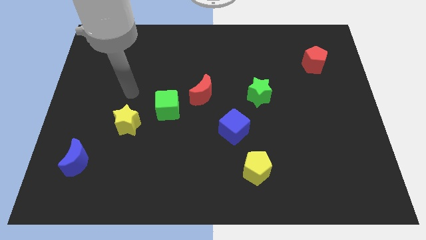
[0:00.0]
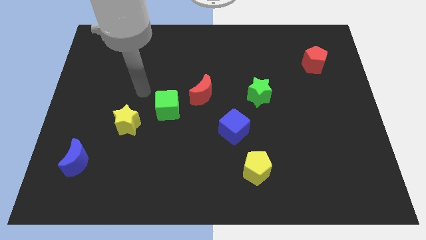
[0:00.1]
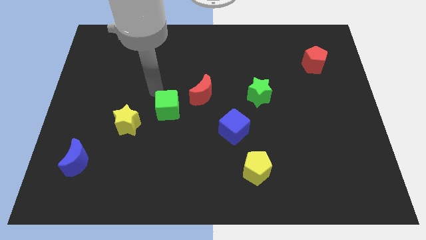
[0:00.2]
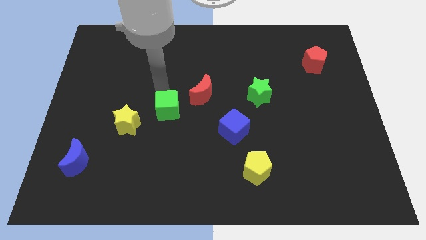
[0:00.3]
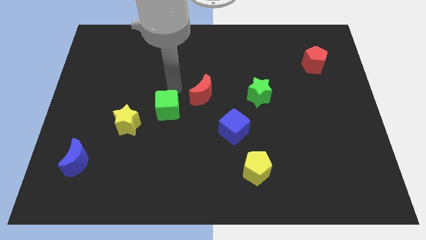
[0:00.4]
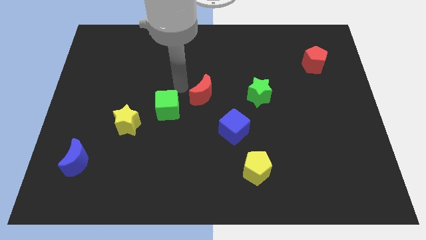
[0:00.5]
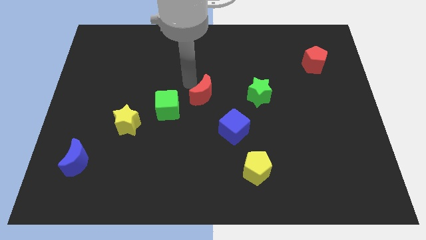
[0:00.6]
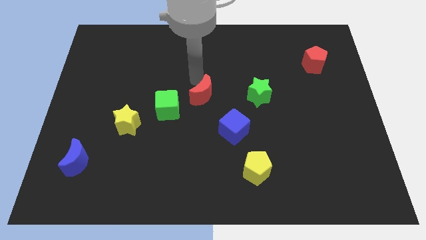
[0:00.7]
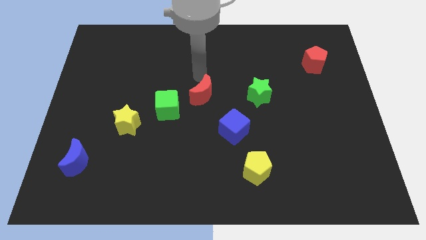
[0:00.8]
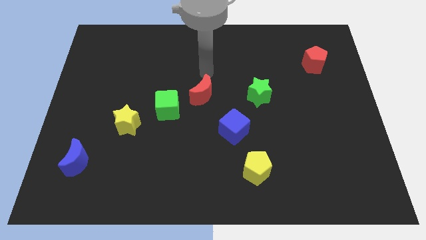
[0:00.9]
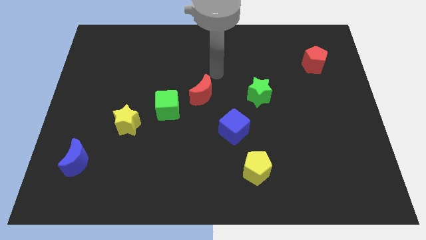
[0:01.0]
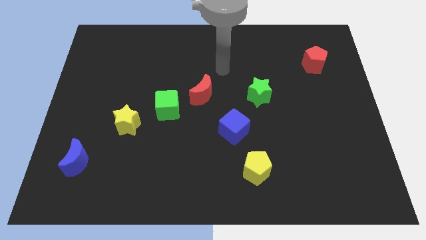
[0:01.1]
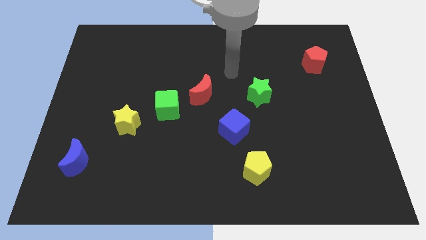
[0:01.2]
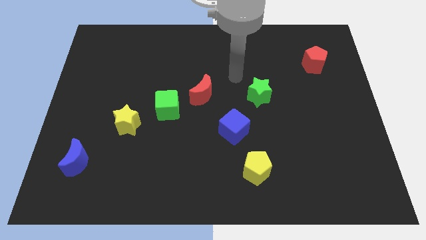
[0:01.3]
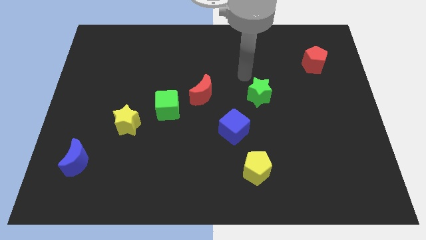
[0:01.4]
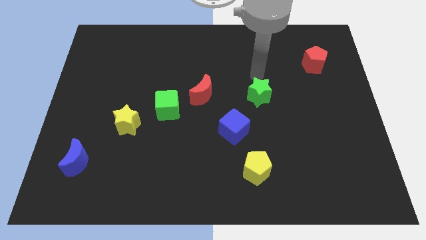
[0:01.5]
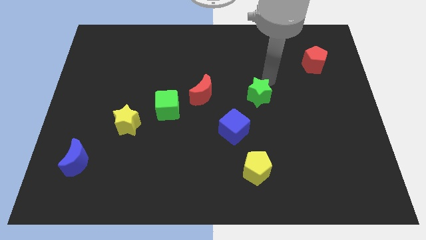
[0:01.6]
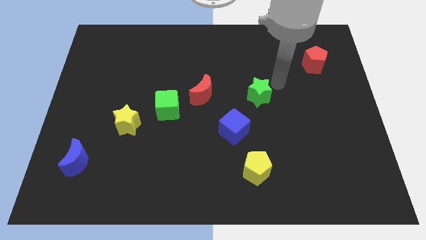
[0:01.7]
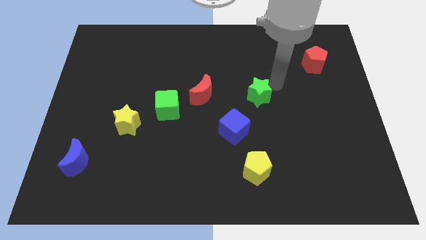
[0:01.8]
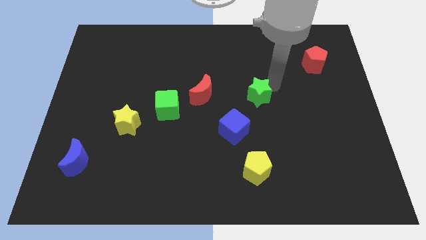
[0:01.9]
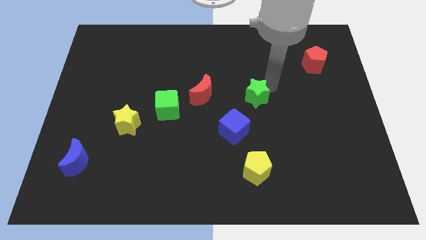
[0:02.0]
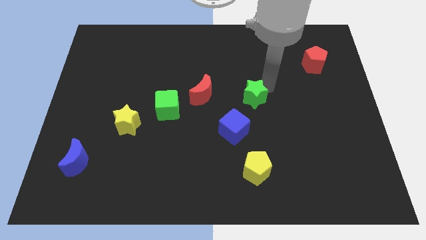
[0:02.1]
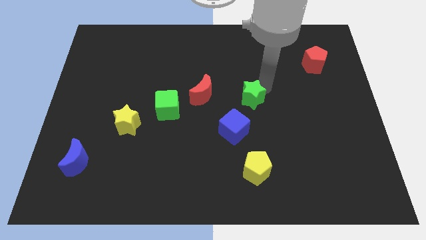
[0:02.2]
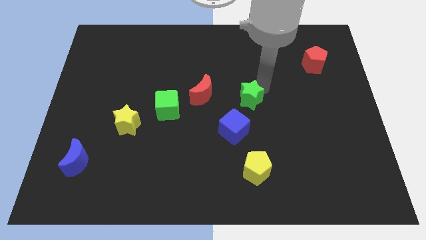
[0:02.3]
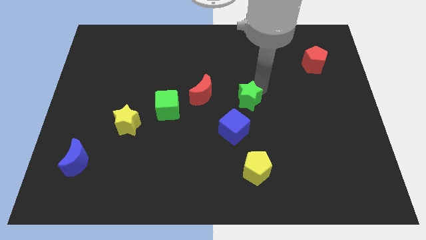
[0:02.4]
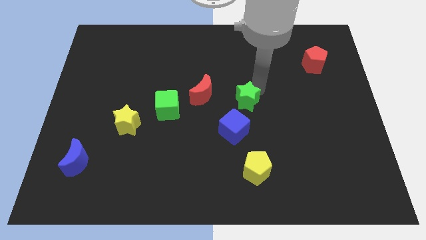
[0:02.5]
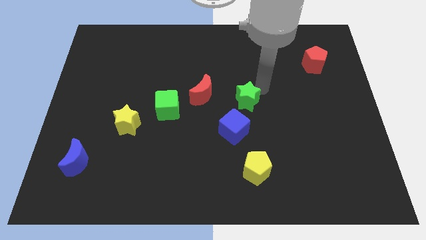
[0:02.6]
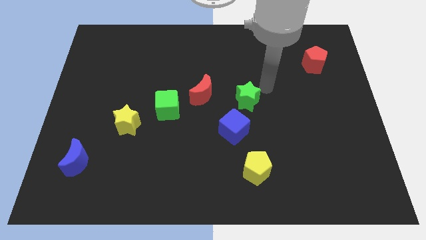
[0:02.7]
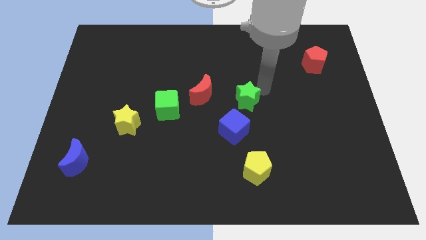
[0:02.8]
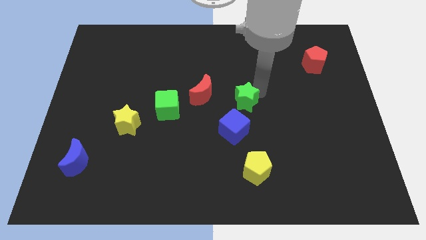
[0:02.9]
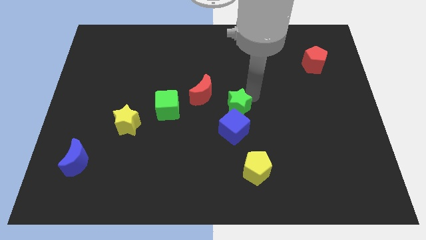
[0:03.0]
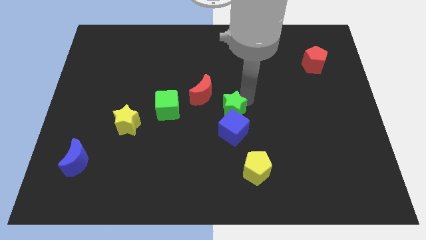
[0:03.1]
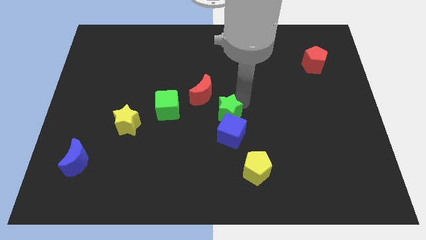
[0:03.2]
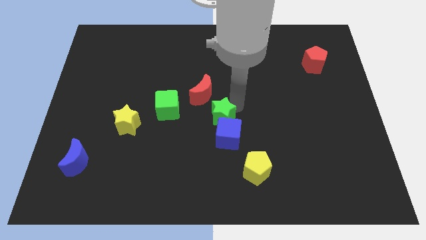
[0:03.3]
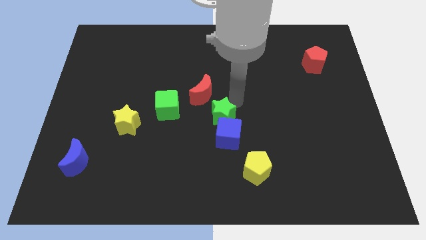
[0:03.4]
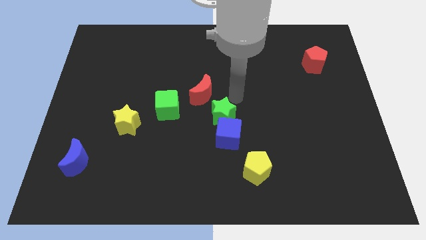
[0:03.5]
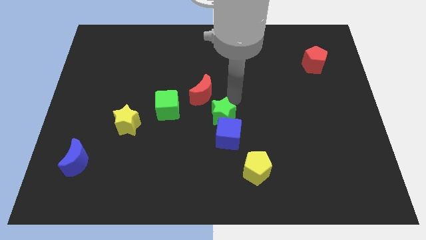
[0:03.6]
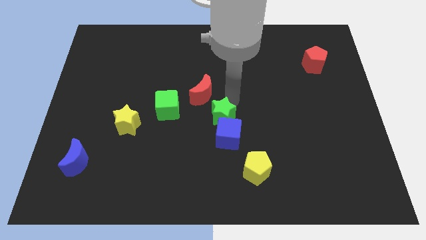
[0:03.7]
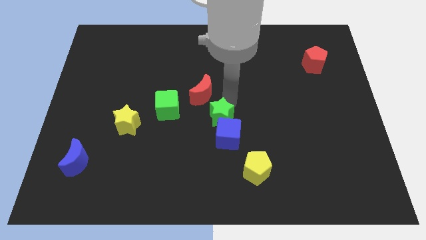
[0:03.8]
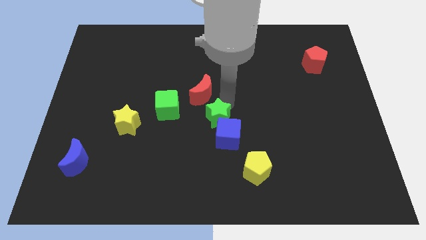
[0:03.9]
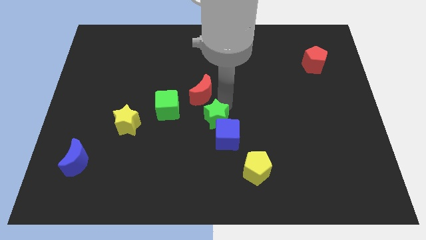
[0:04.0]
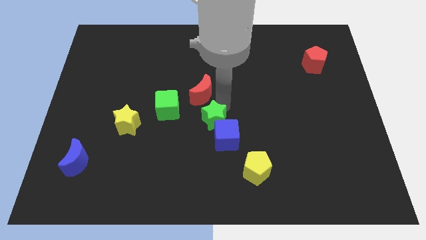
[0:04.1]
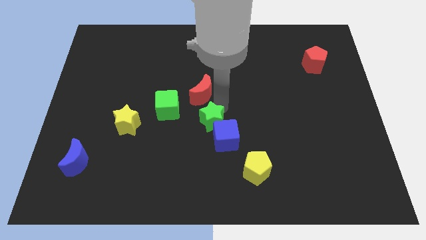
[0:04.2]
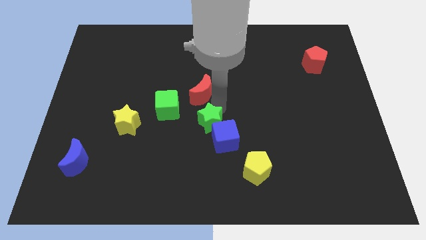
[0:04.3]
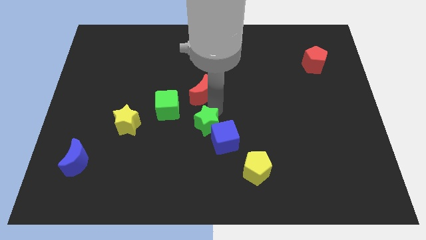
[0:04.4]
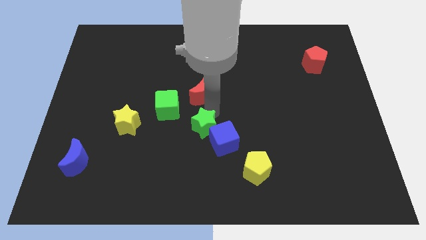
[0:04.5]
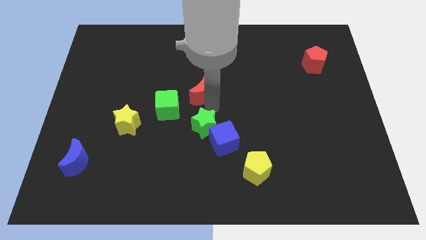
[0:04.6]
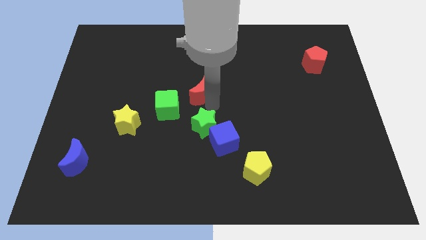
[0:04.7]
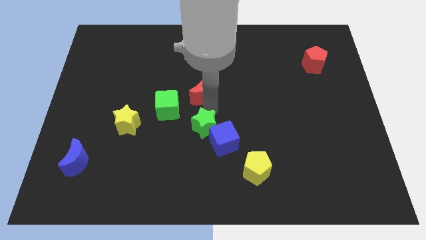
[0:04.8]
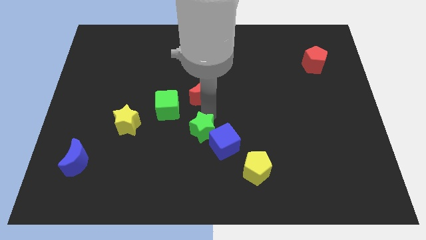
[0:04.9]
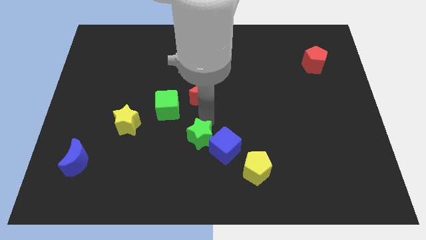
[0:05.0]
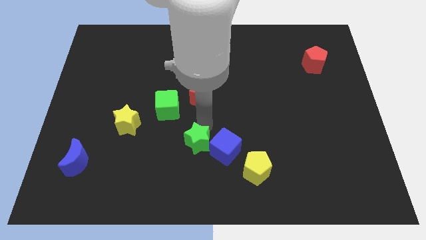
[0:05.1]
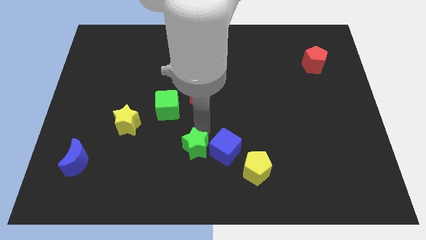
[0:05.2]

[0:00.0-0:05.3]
move the green star downwards and left

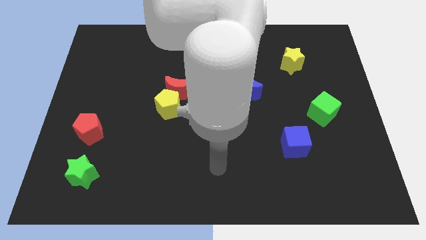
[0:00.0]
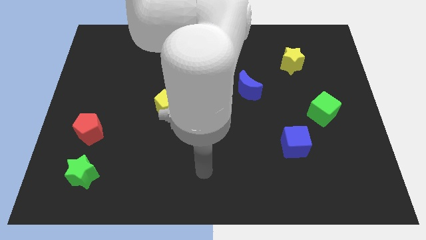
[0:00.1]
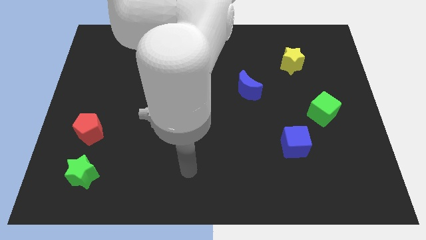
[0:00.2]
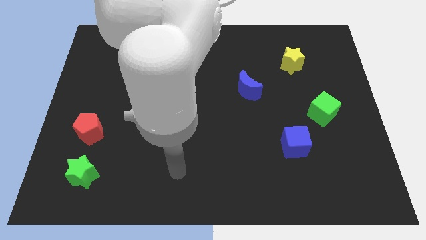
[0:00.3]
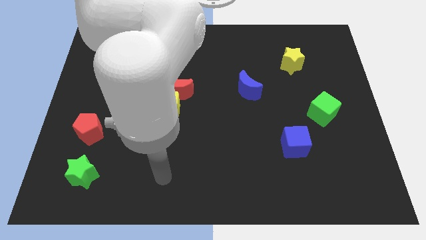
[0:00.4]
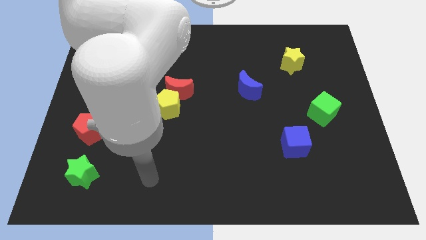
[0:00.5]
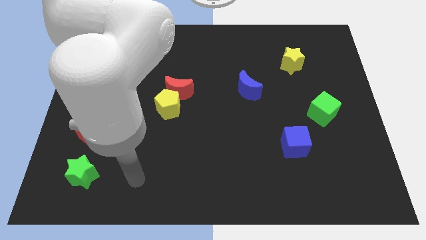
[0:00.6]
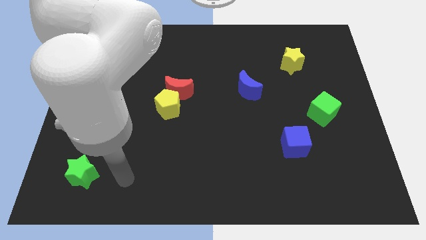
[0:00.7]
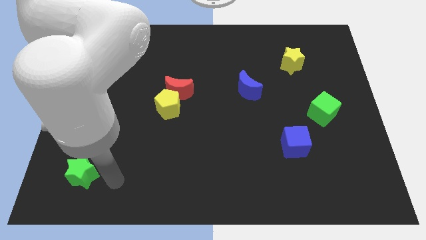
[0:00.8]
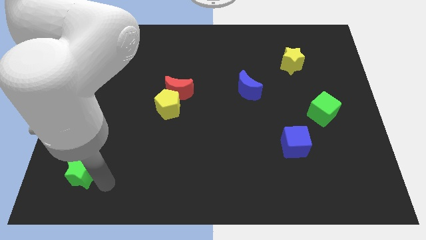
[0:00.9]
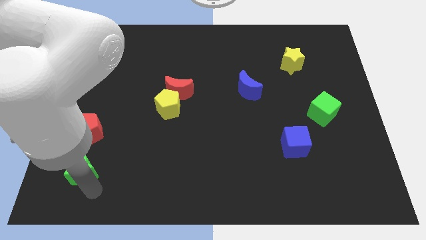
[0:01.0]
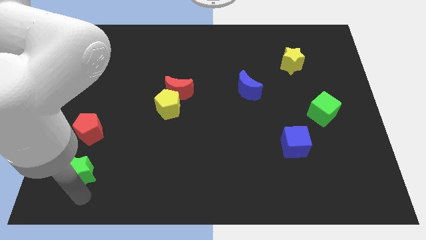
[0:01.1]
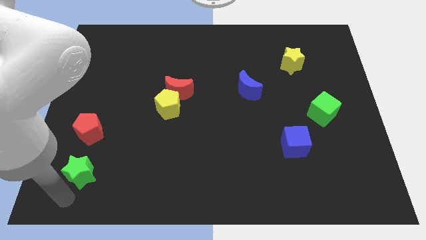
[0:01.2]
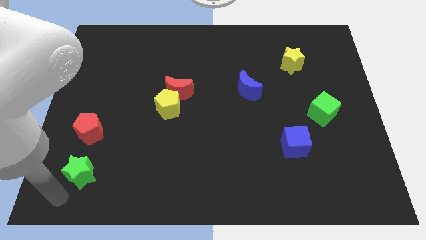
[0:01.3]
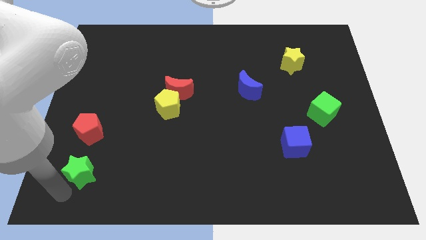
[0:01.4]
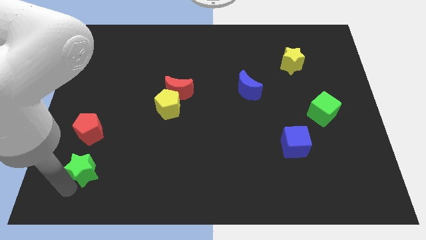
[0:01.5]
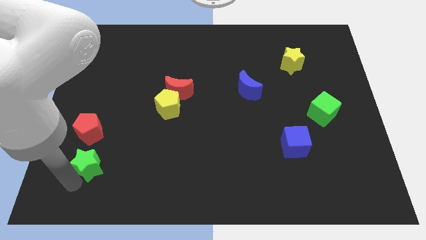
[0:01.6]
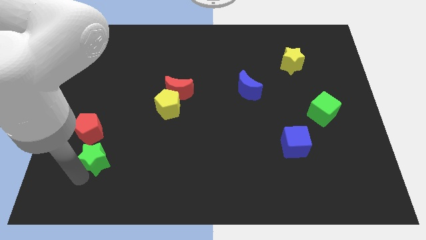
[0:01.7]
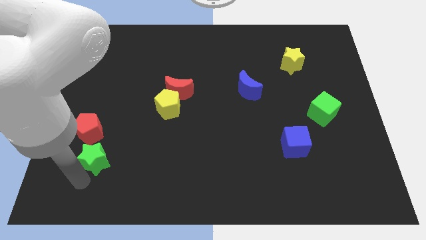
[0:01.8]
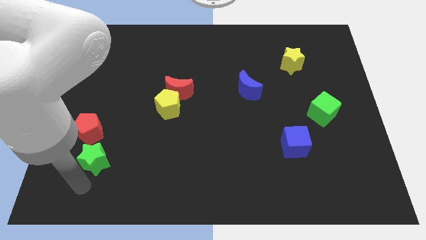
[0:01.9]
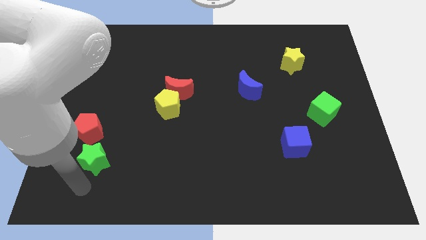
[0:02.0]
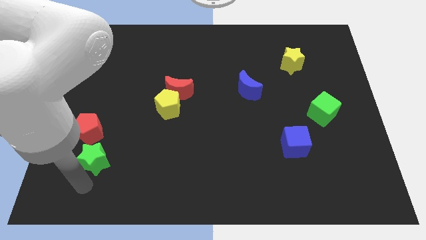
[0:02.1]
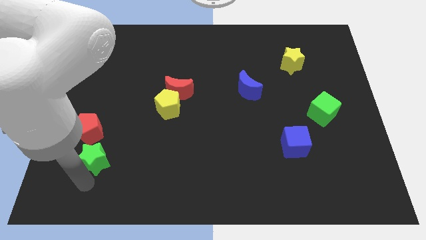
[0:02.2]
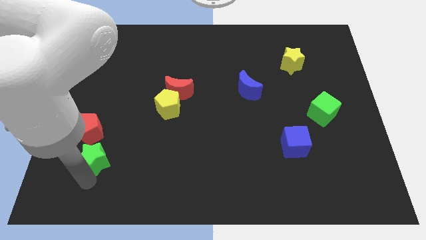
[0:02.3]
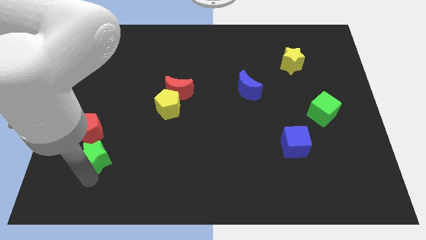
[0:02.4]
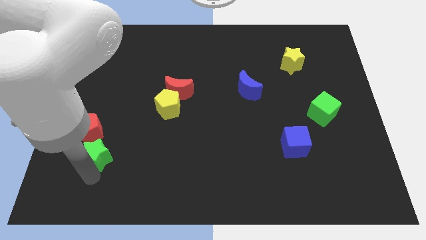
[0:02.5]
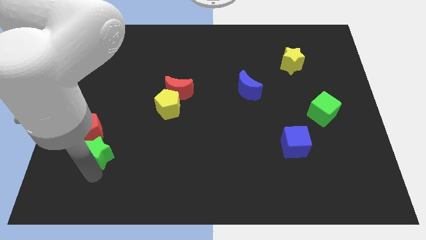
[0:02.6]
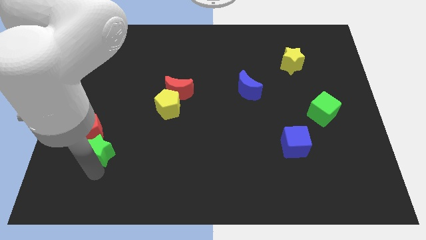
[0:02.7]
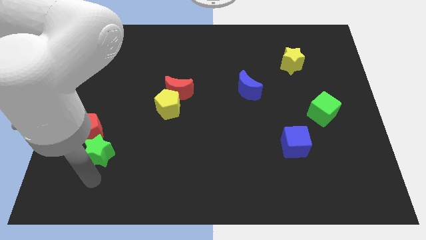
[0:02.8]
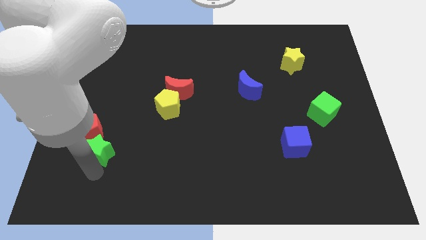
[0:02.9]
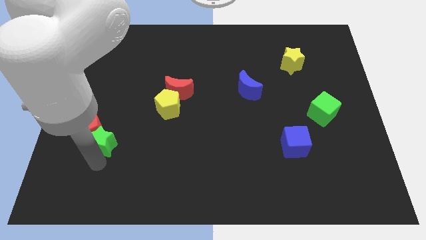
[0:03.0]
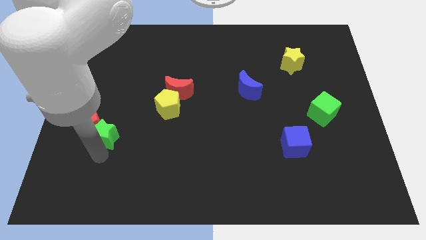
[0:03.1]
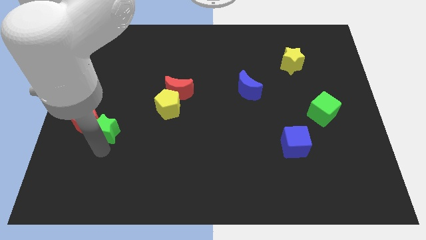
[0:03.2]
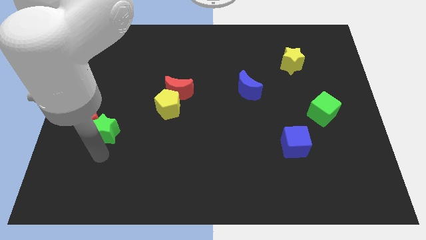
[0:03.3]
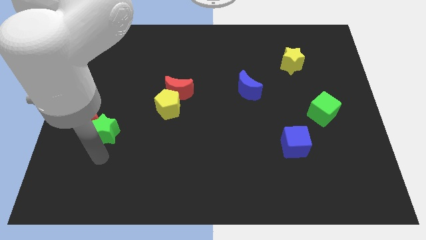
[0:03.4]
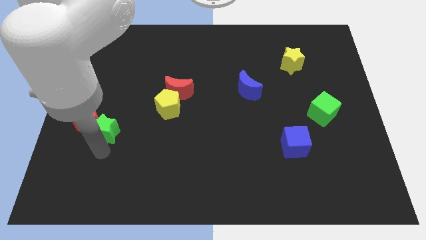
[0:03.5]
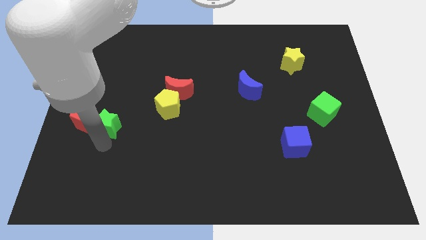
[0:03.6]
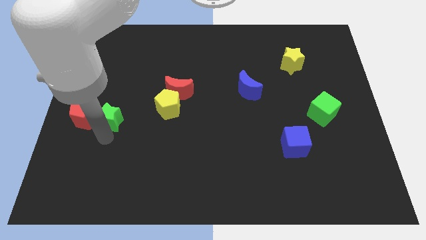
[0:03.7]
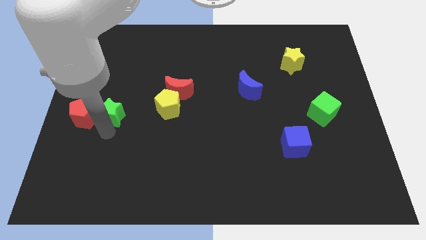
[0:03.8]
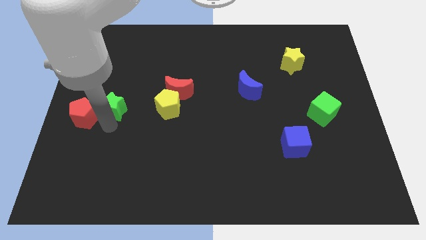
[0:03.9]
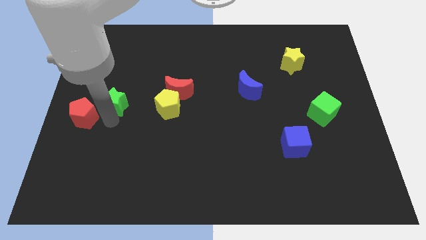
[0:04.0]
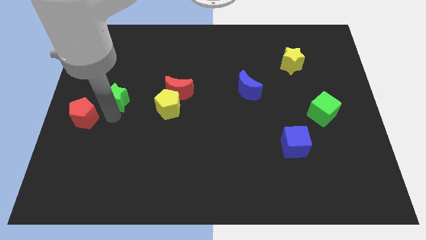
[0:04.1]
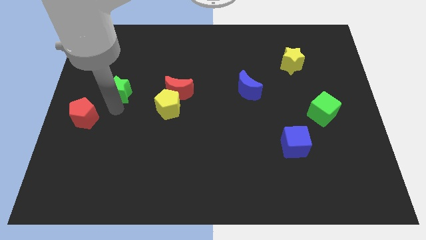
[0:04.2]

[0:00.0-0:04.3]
push the green star upwards
